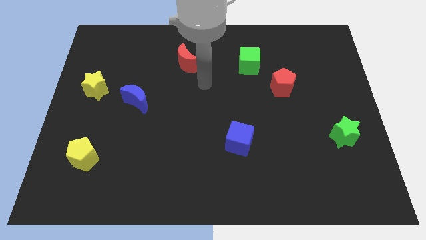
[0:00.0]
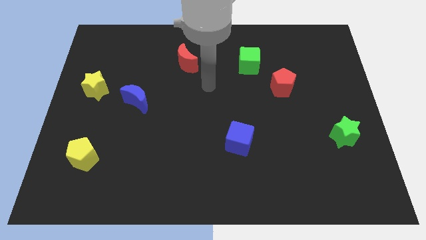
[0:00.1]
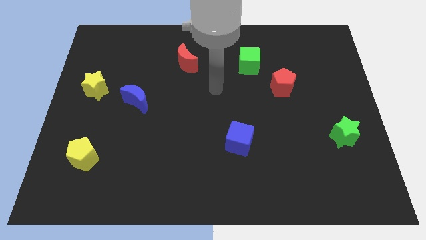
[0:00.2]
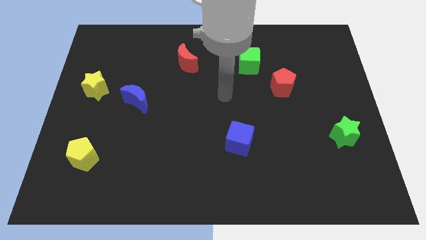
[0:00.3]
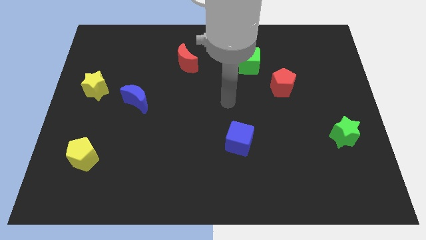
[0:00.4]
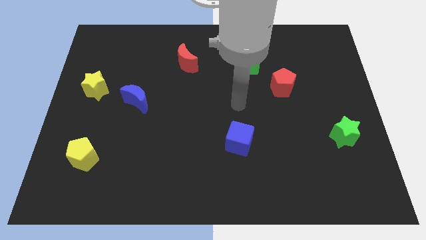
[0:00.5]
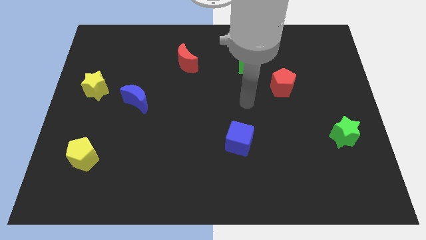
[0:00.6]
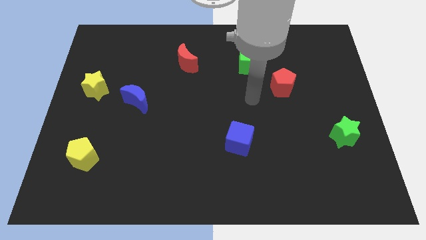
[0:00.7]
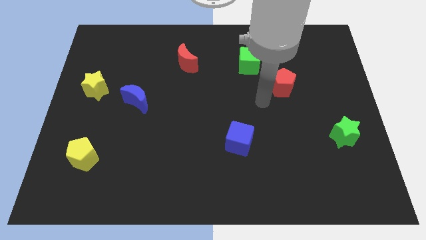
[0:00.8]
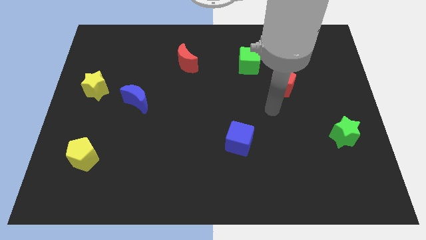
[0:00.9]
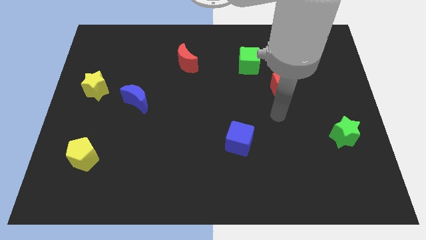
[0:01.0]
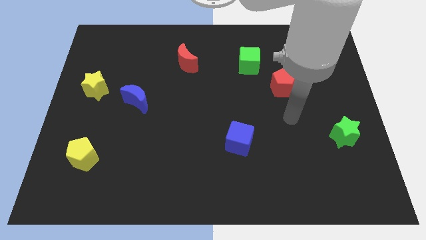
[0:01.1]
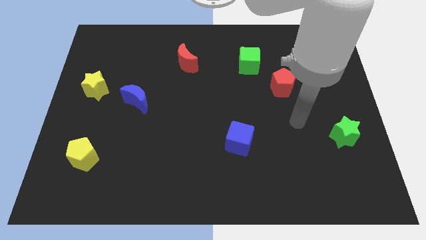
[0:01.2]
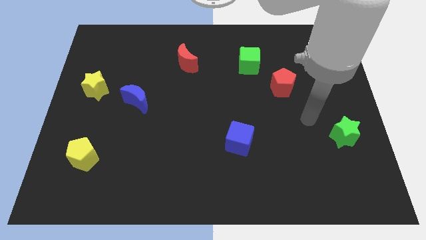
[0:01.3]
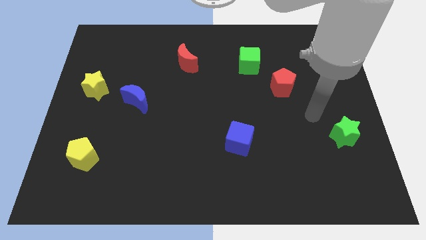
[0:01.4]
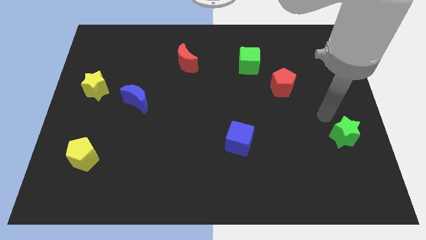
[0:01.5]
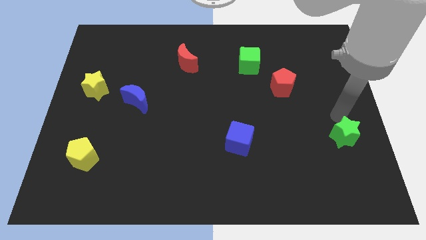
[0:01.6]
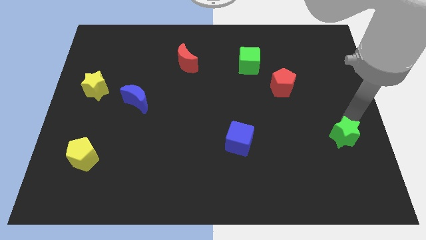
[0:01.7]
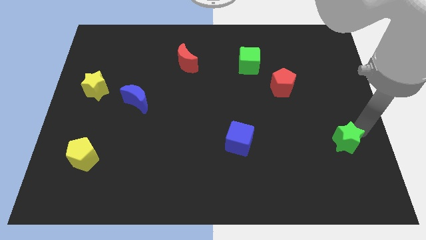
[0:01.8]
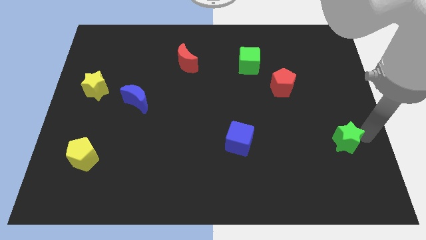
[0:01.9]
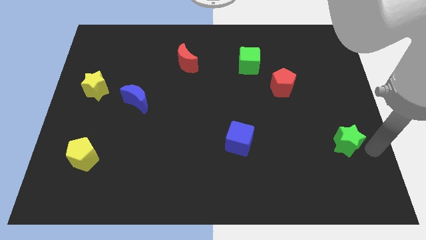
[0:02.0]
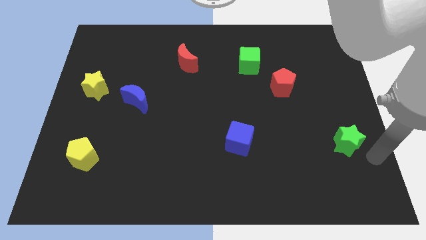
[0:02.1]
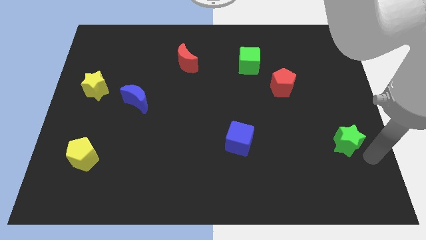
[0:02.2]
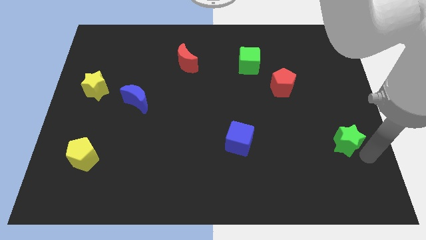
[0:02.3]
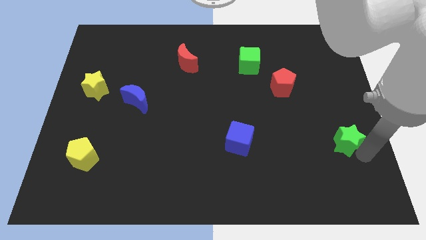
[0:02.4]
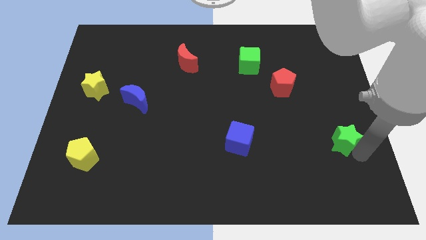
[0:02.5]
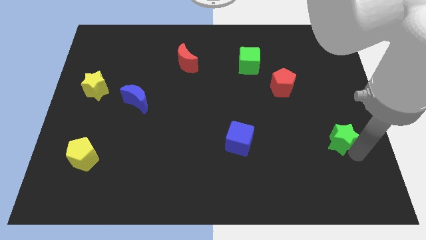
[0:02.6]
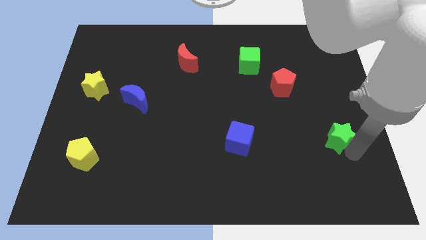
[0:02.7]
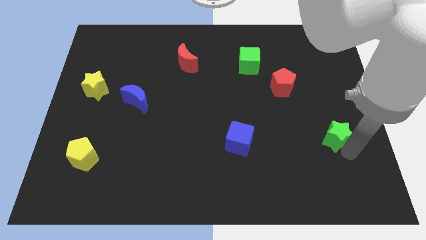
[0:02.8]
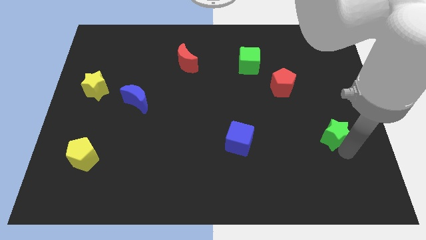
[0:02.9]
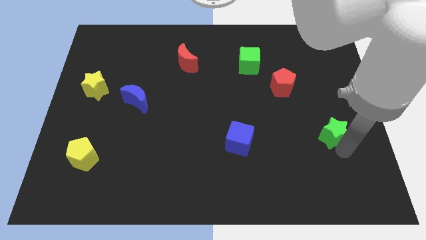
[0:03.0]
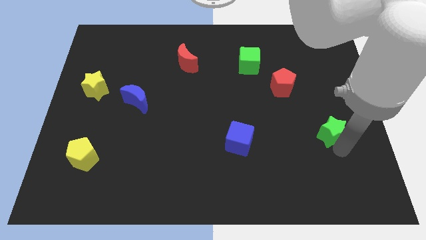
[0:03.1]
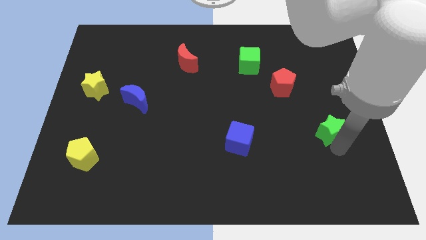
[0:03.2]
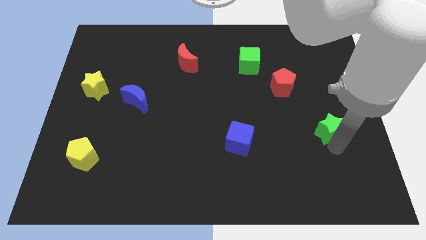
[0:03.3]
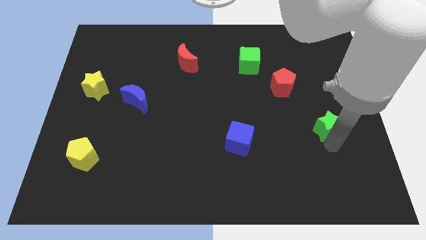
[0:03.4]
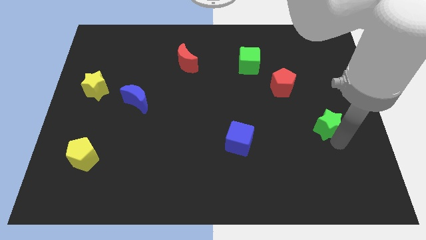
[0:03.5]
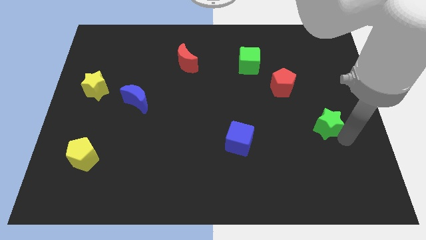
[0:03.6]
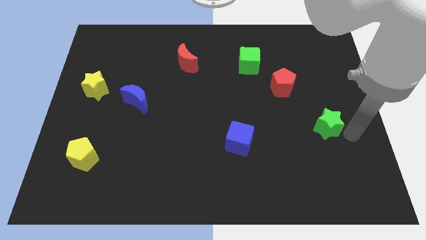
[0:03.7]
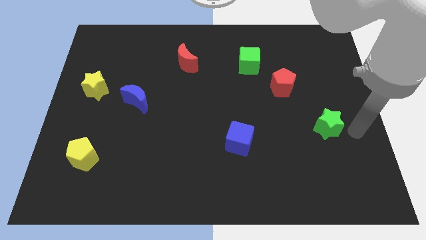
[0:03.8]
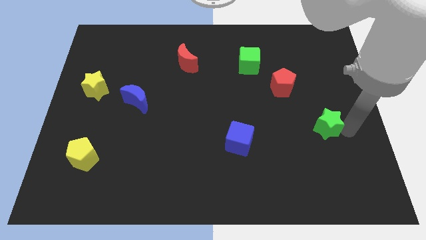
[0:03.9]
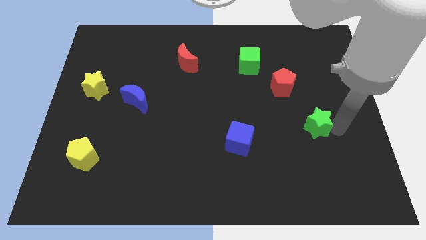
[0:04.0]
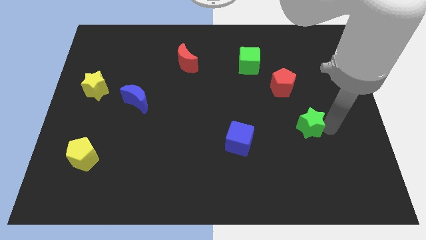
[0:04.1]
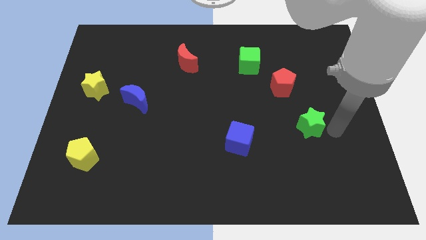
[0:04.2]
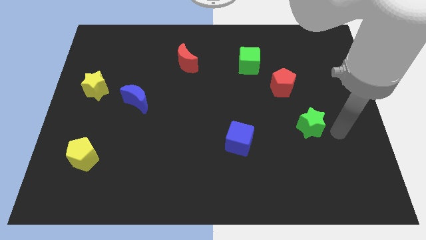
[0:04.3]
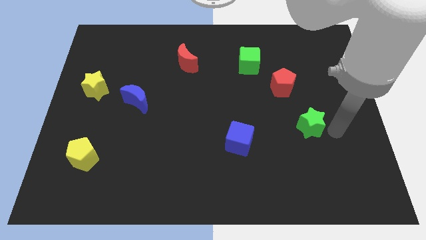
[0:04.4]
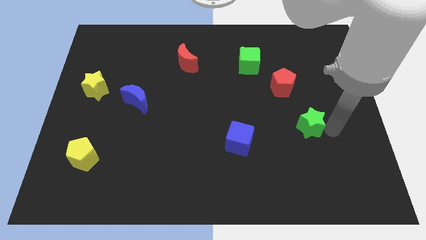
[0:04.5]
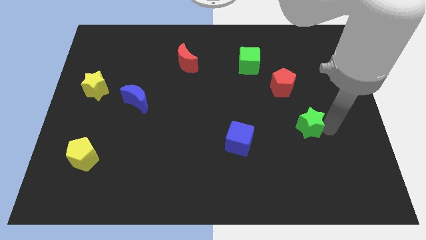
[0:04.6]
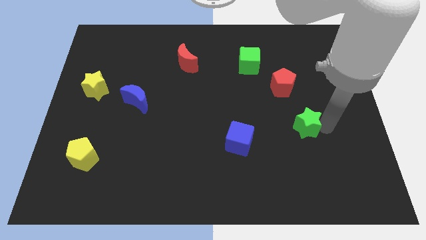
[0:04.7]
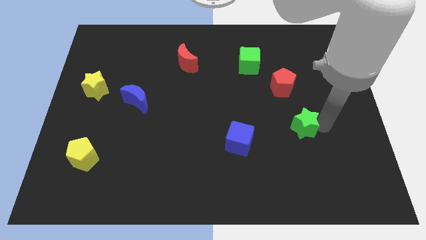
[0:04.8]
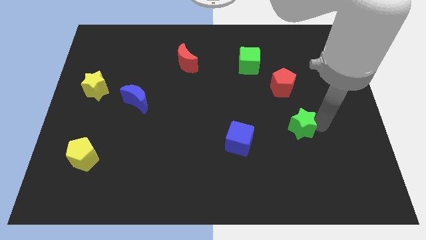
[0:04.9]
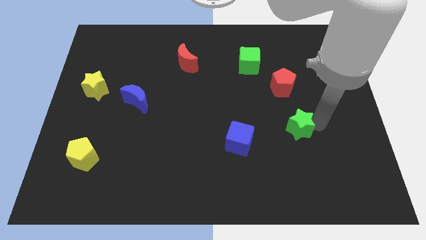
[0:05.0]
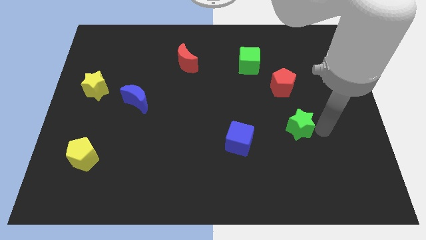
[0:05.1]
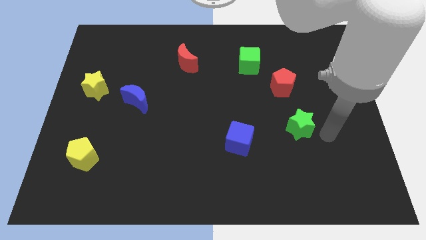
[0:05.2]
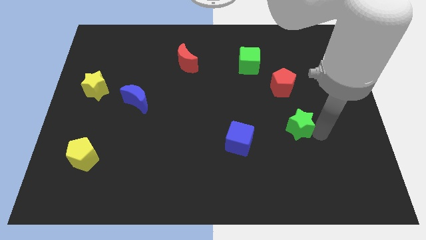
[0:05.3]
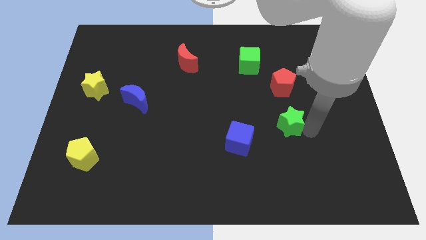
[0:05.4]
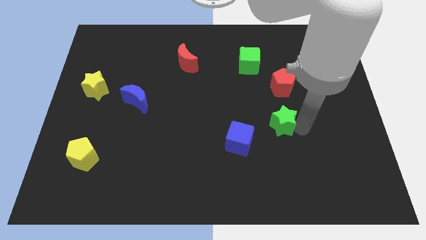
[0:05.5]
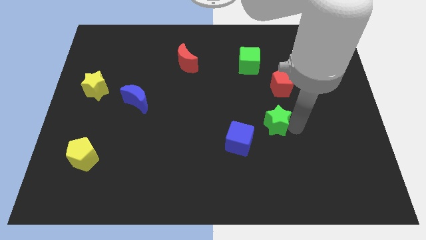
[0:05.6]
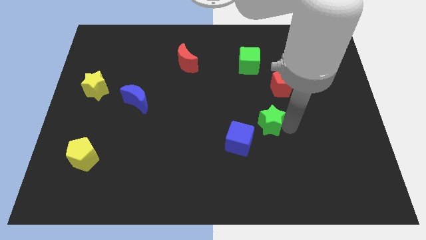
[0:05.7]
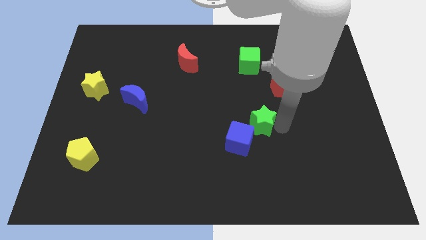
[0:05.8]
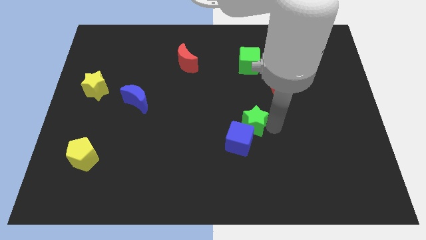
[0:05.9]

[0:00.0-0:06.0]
push the green star to the middle

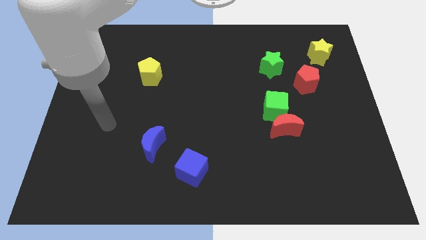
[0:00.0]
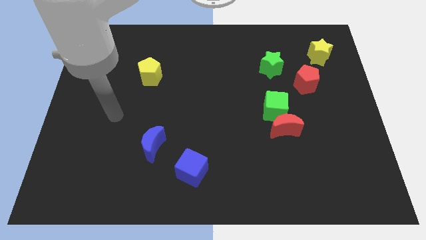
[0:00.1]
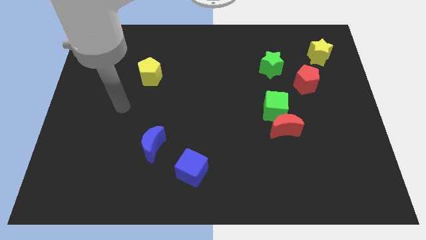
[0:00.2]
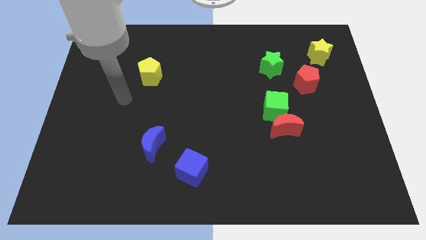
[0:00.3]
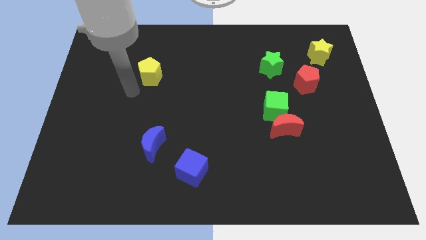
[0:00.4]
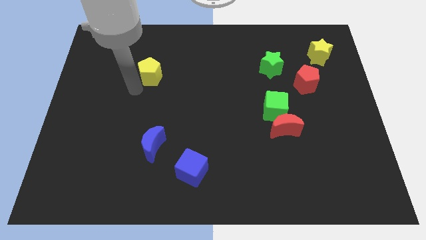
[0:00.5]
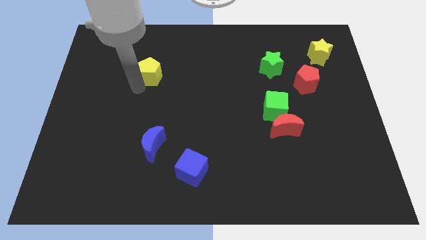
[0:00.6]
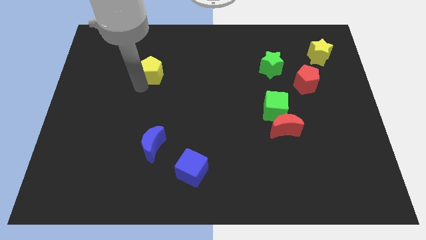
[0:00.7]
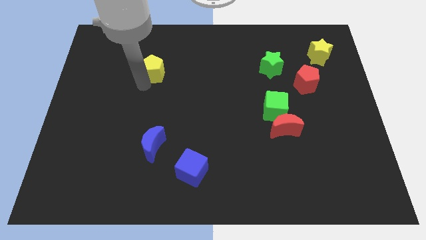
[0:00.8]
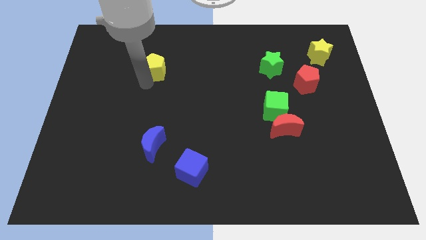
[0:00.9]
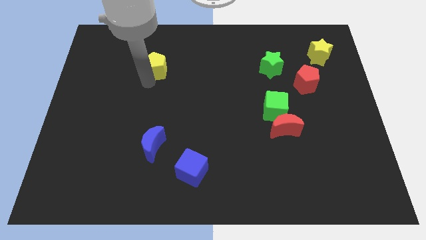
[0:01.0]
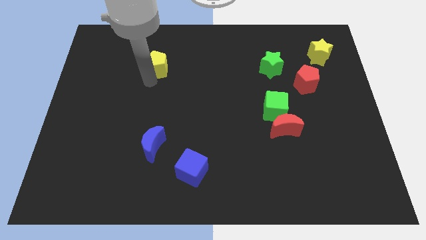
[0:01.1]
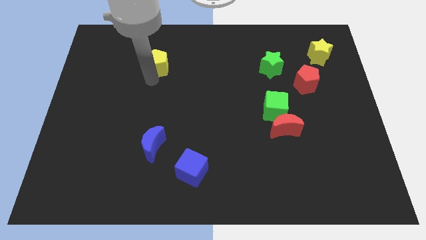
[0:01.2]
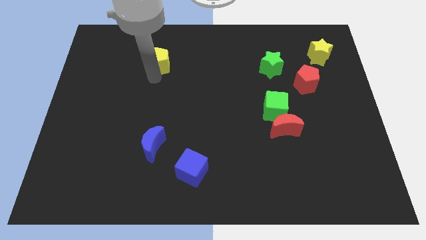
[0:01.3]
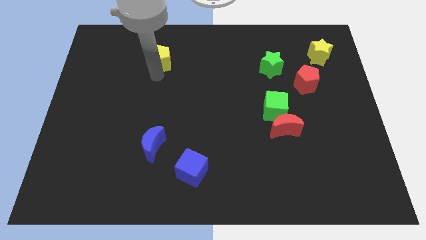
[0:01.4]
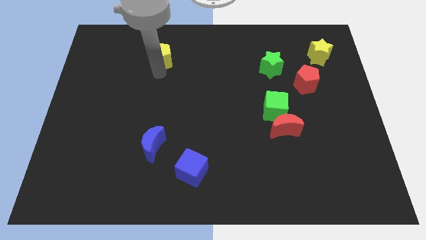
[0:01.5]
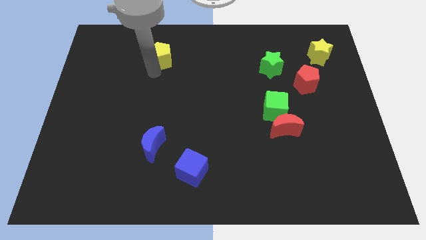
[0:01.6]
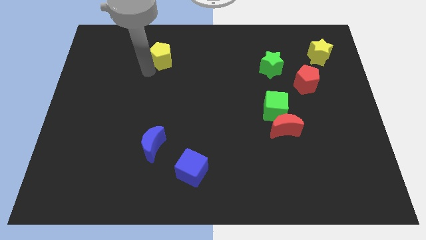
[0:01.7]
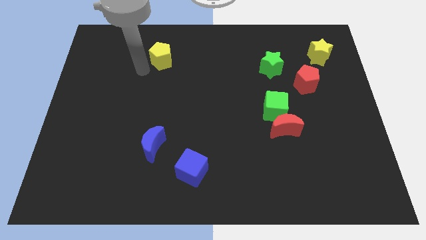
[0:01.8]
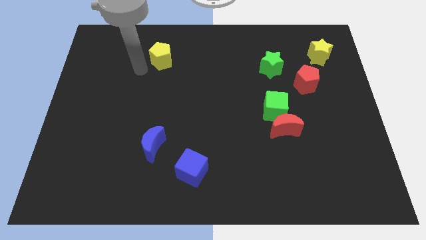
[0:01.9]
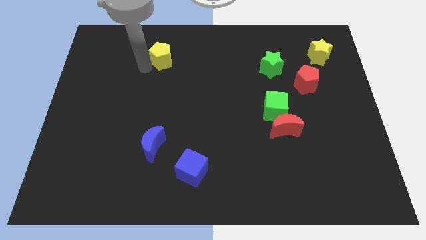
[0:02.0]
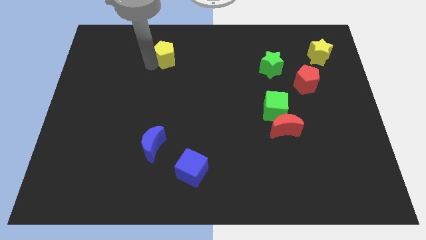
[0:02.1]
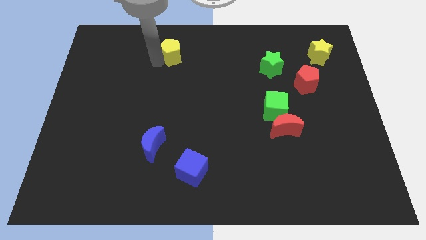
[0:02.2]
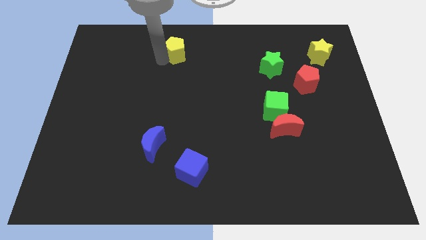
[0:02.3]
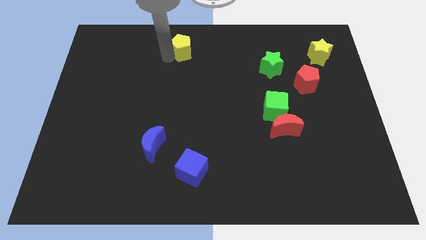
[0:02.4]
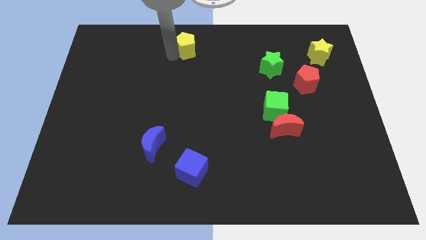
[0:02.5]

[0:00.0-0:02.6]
push the yellow pentagon to the top
